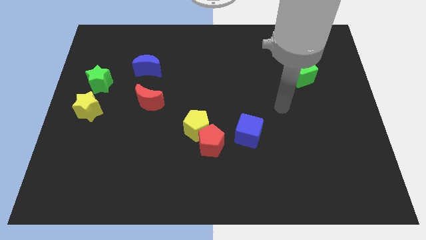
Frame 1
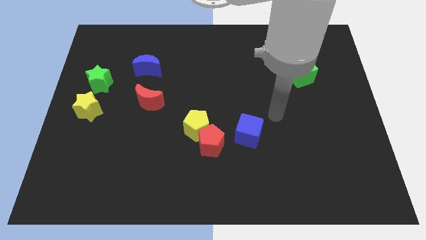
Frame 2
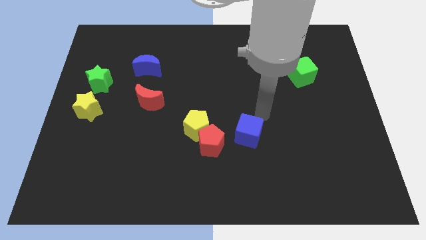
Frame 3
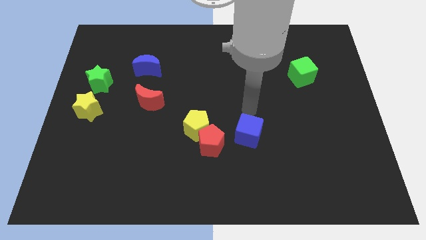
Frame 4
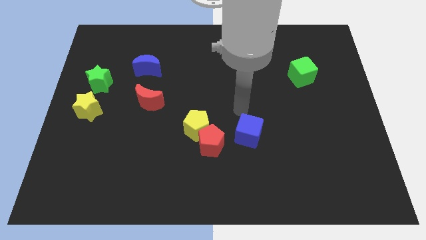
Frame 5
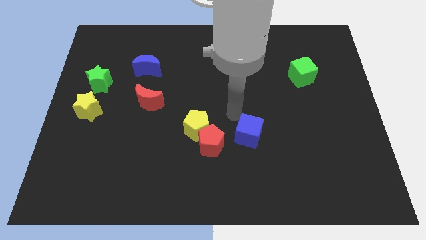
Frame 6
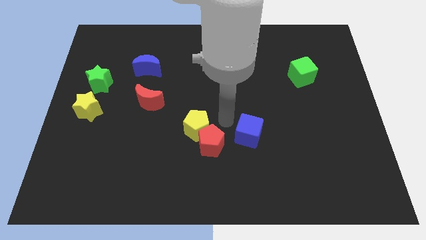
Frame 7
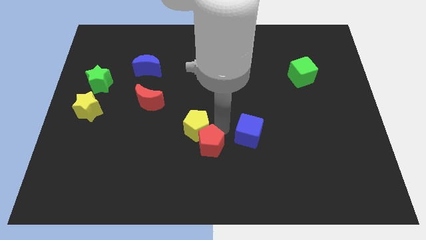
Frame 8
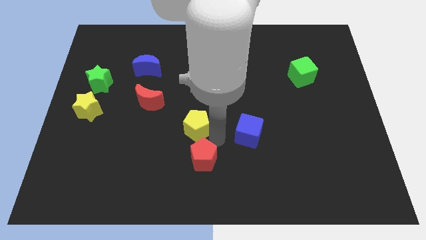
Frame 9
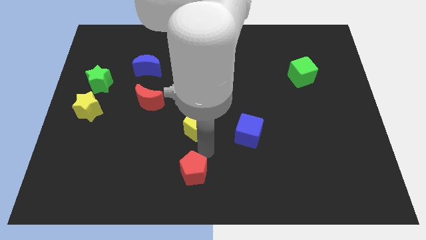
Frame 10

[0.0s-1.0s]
separate the yellow pentagon from the red pentagon

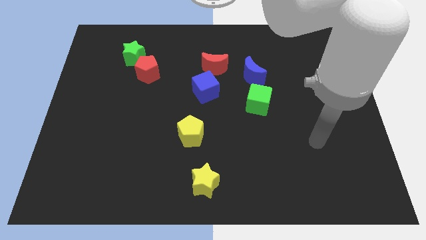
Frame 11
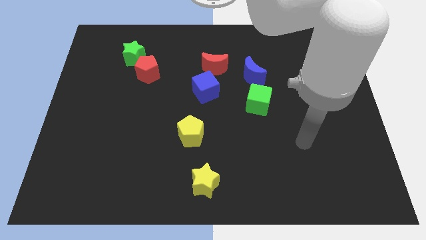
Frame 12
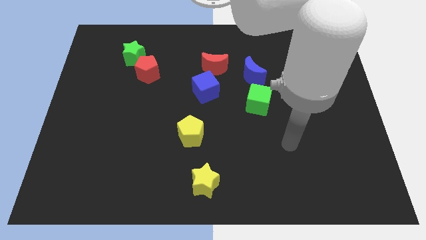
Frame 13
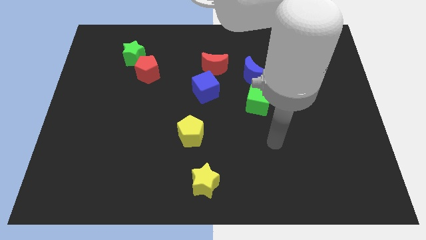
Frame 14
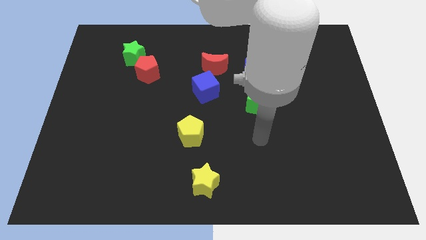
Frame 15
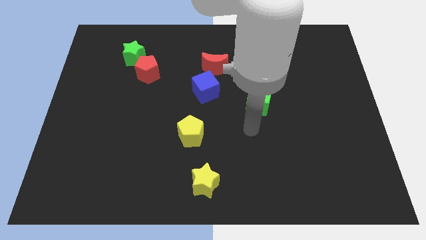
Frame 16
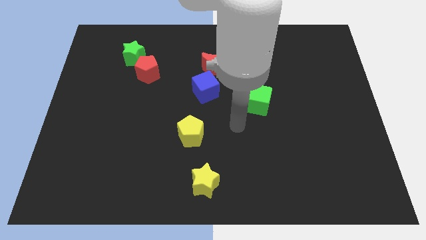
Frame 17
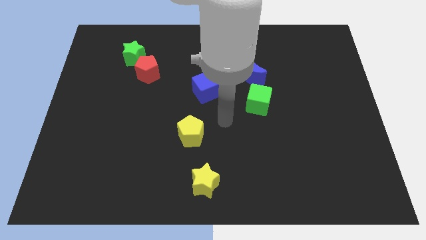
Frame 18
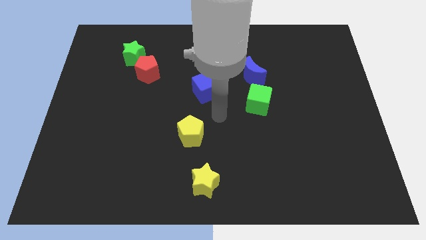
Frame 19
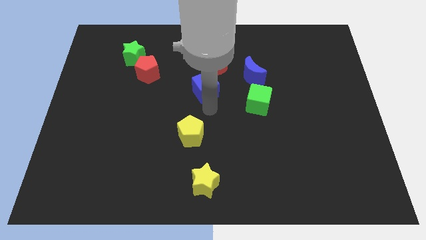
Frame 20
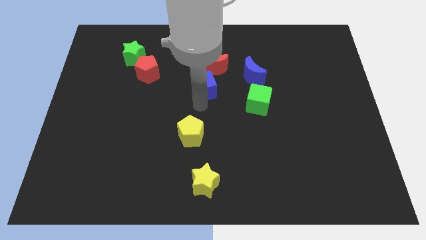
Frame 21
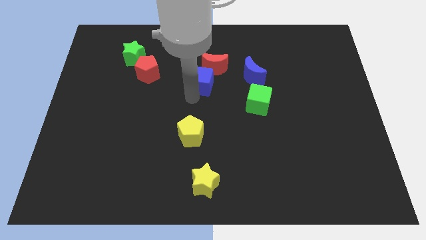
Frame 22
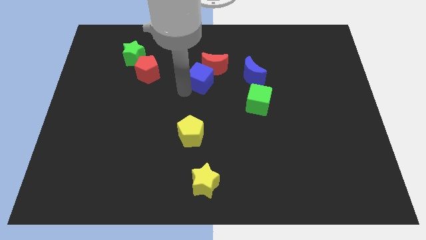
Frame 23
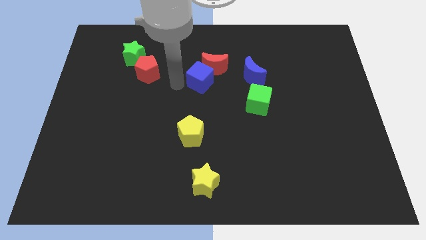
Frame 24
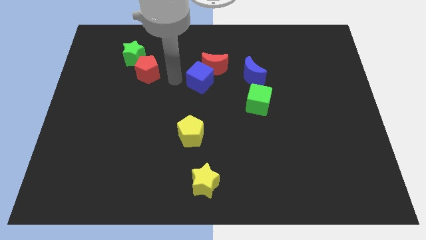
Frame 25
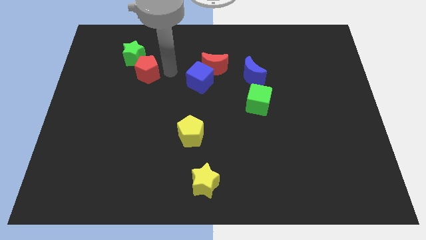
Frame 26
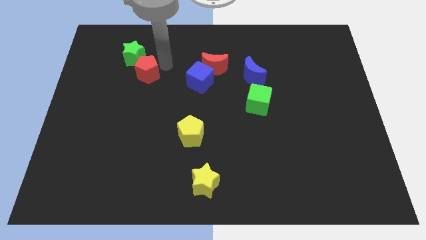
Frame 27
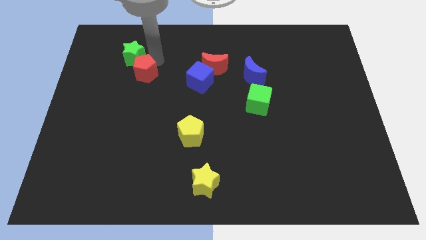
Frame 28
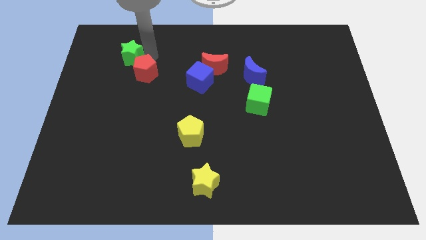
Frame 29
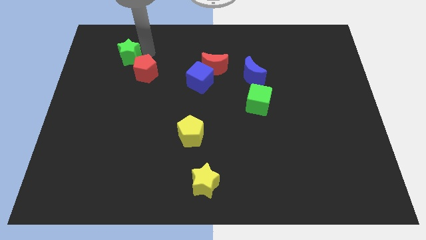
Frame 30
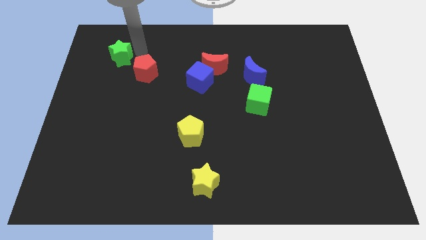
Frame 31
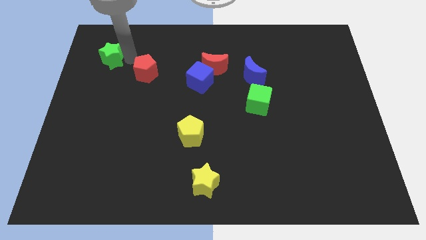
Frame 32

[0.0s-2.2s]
pull the red pentagon apart from the green star

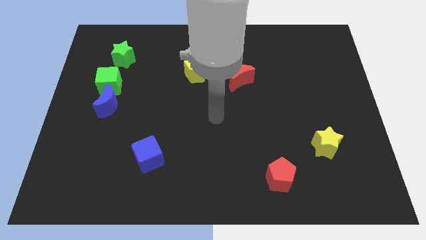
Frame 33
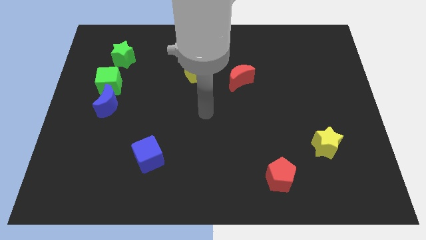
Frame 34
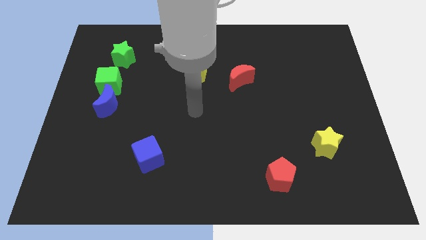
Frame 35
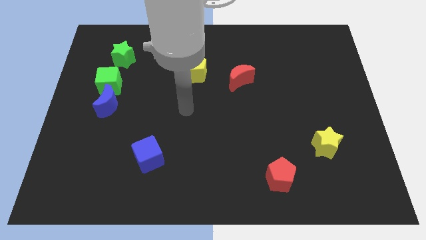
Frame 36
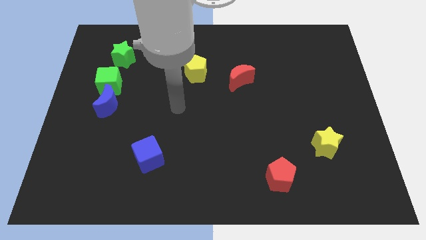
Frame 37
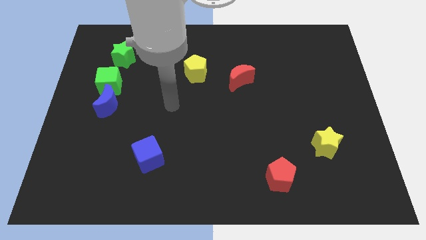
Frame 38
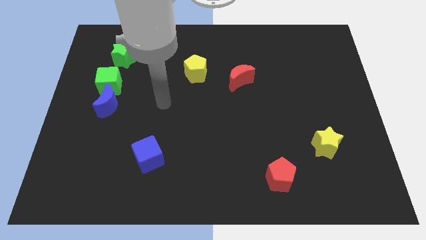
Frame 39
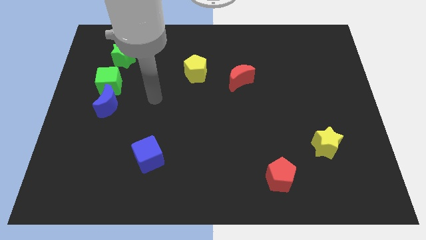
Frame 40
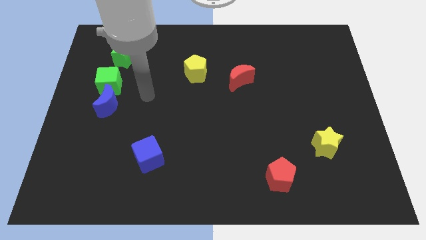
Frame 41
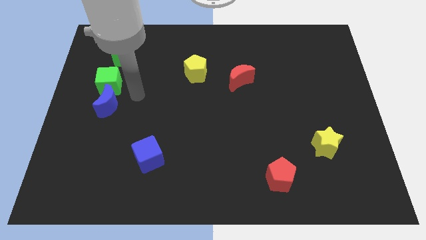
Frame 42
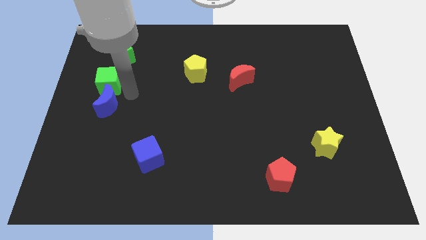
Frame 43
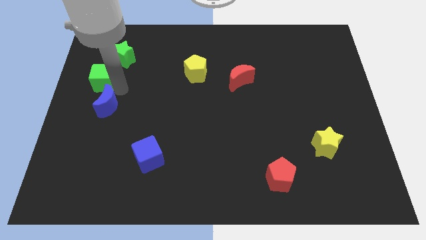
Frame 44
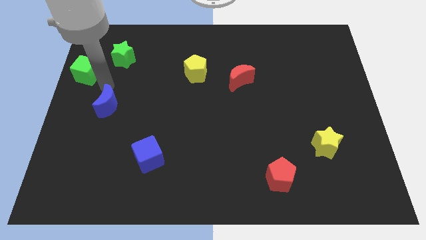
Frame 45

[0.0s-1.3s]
separate the blue moon from the green cube

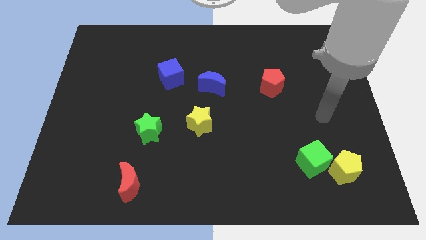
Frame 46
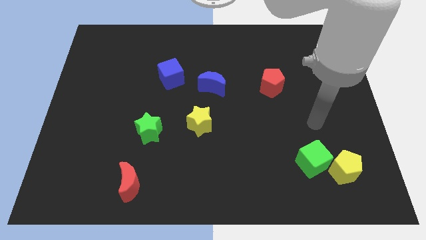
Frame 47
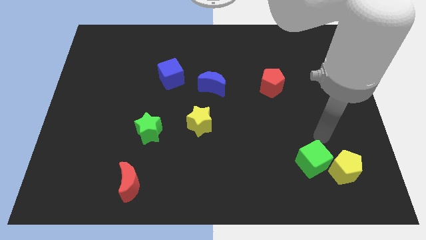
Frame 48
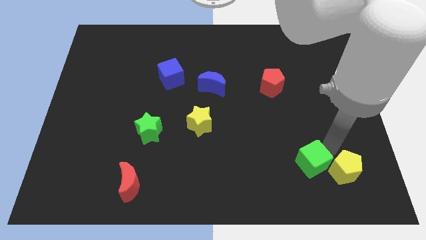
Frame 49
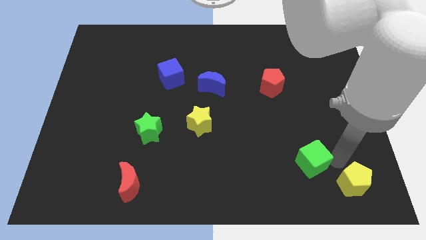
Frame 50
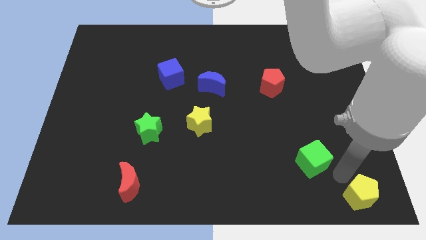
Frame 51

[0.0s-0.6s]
pull the green cube apart from the yellow pentagon

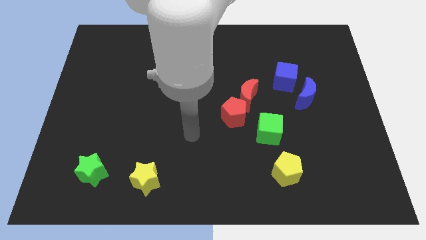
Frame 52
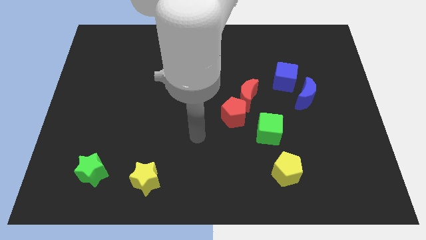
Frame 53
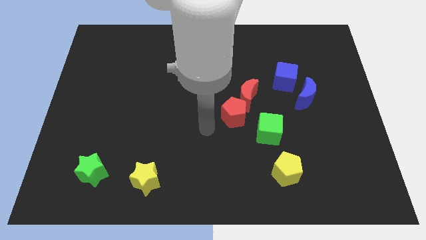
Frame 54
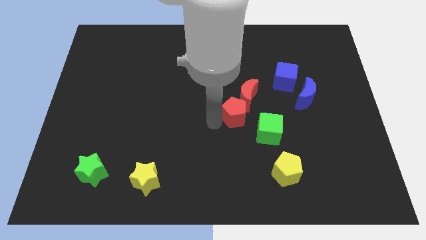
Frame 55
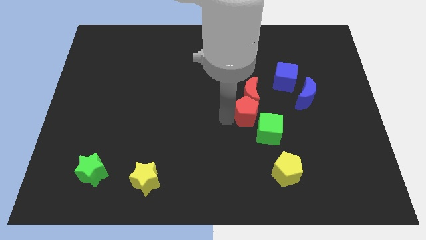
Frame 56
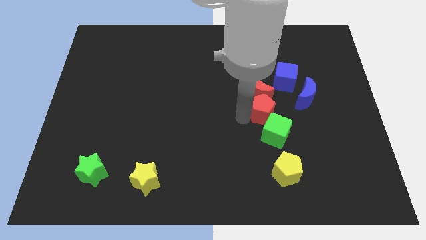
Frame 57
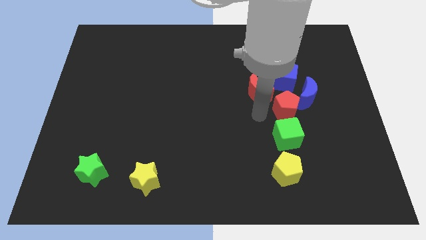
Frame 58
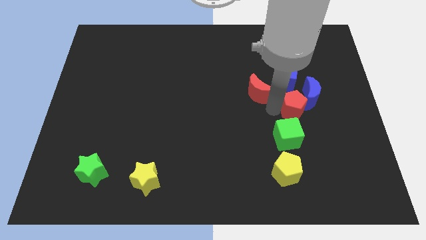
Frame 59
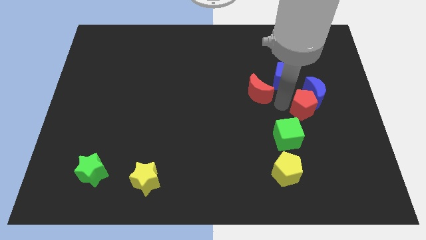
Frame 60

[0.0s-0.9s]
move the red moon away from the red pentagon

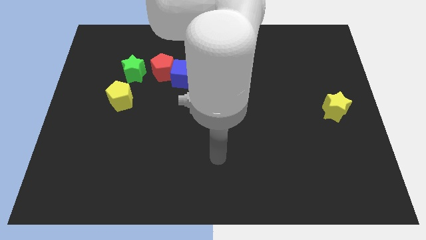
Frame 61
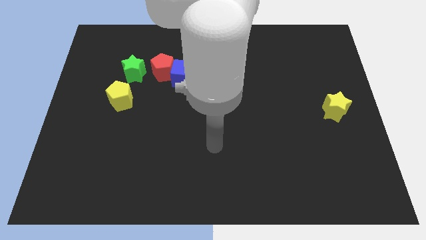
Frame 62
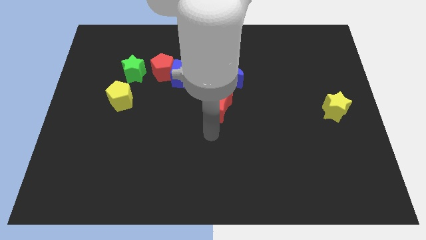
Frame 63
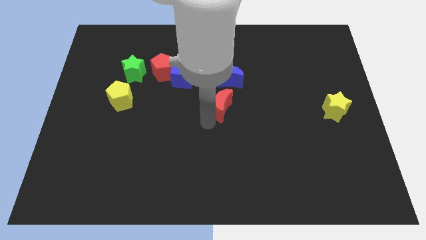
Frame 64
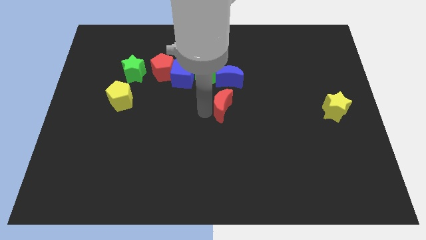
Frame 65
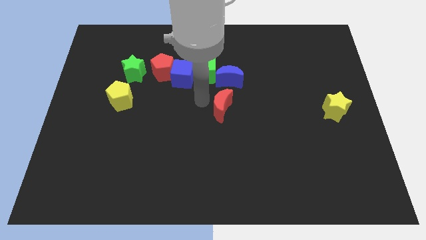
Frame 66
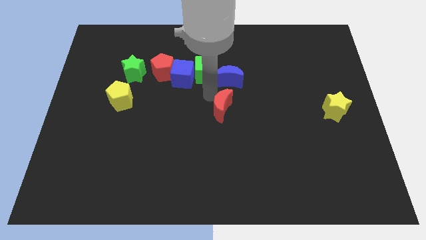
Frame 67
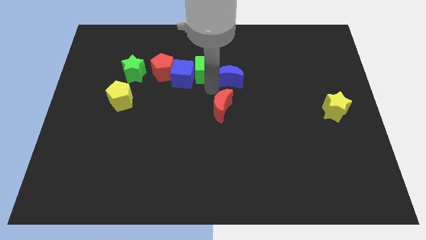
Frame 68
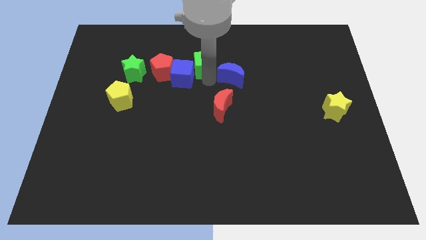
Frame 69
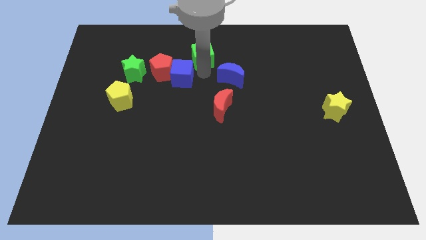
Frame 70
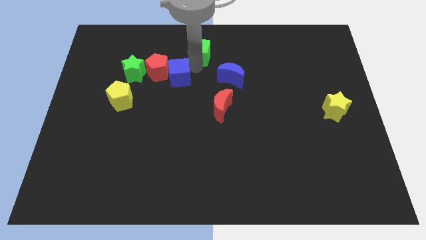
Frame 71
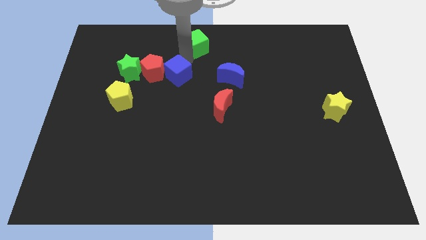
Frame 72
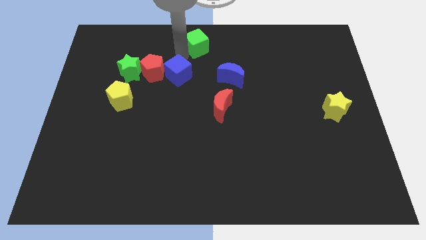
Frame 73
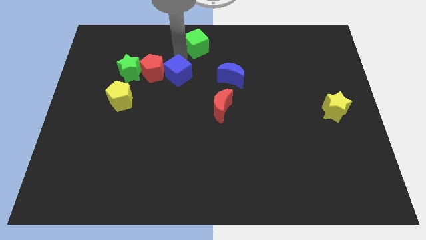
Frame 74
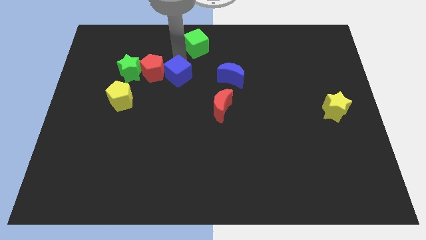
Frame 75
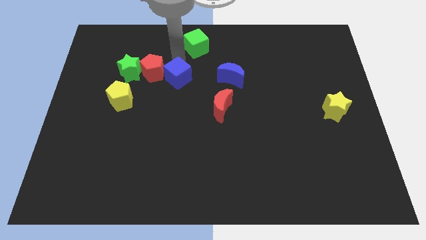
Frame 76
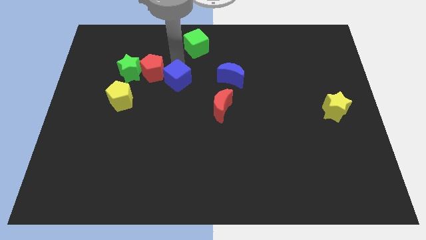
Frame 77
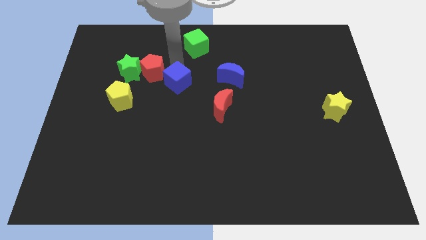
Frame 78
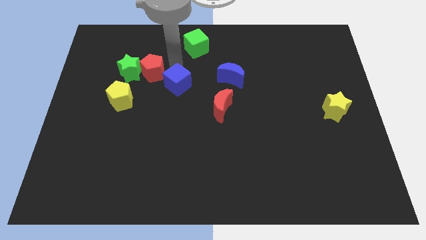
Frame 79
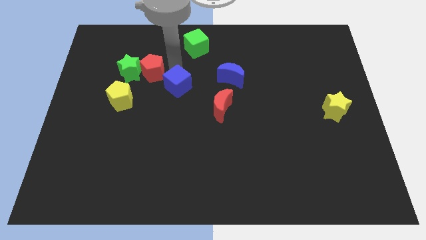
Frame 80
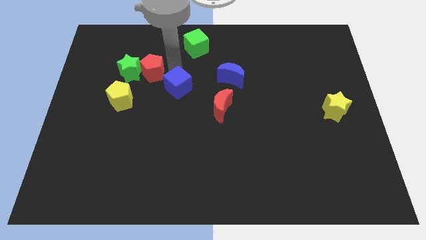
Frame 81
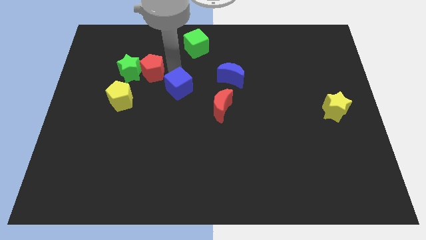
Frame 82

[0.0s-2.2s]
separate the blue cube from the red pentagon and green cube

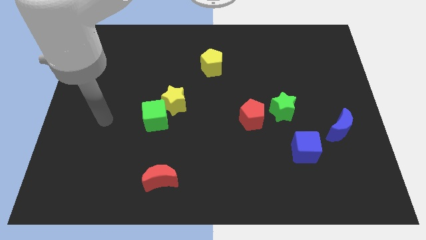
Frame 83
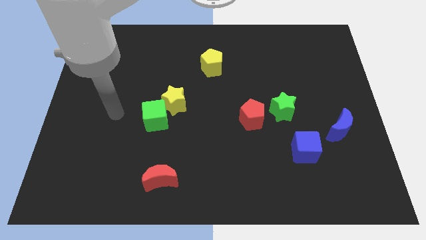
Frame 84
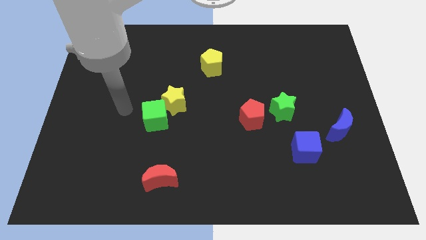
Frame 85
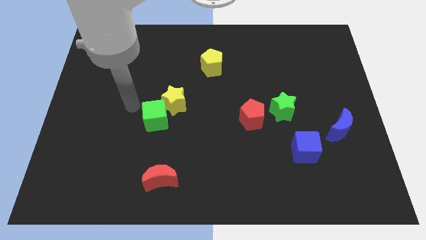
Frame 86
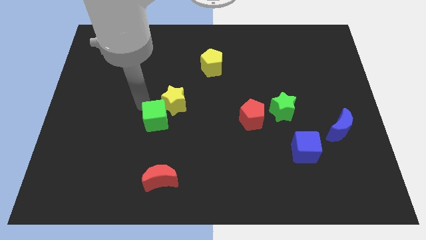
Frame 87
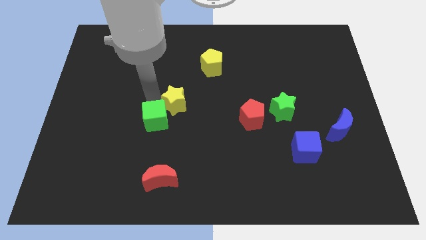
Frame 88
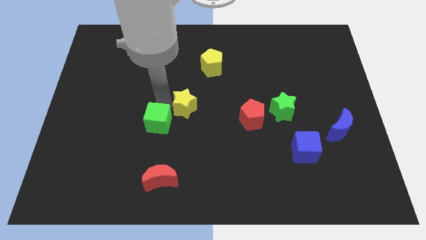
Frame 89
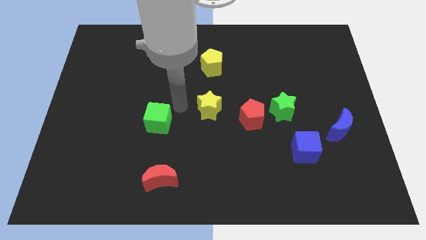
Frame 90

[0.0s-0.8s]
move the green cube away from the yellow star

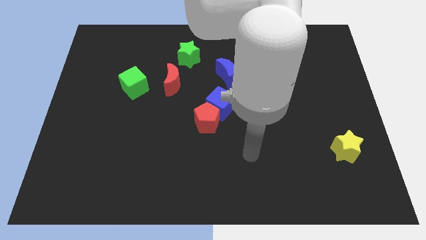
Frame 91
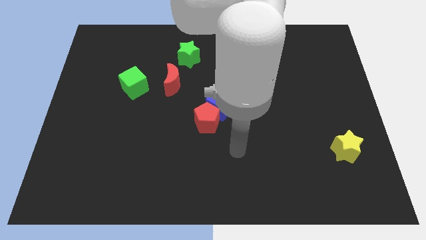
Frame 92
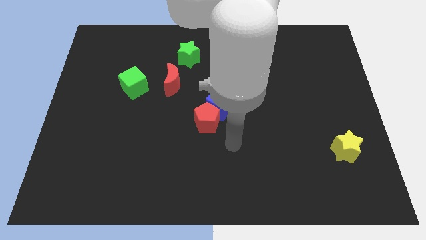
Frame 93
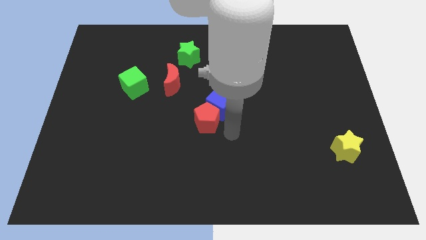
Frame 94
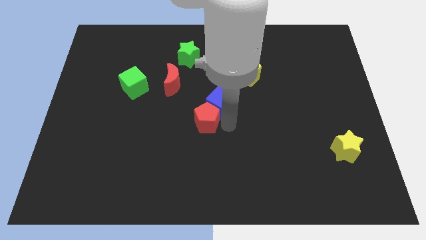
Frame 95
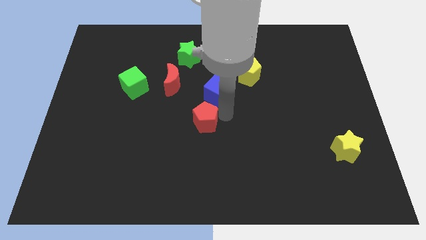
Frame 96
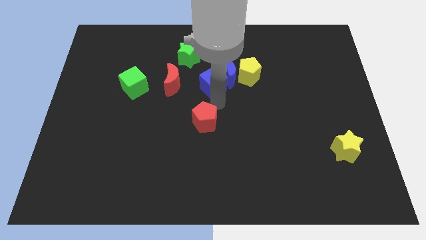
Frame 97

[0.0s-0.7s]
move the red pentagon away from the blue cube
